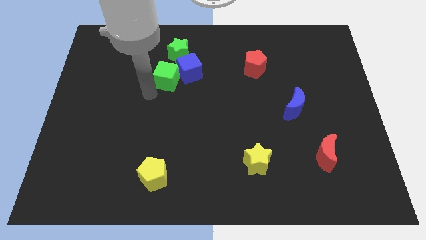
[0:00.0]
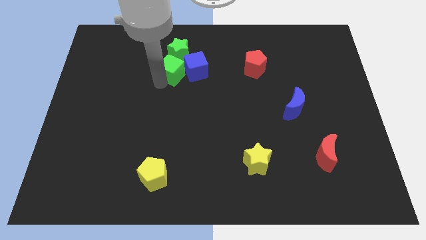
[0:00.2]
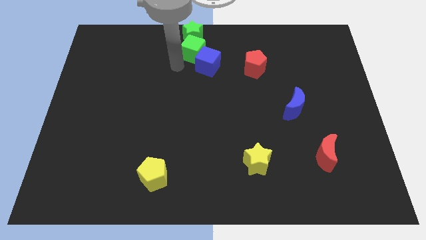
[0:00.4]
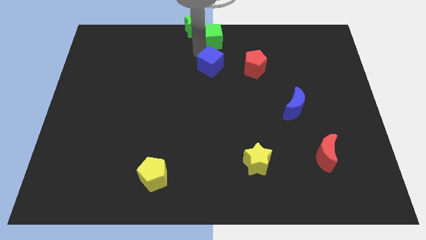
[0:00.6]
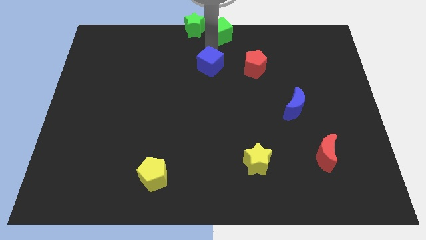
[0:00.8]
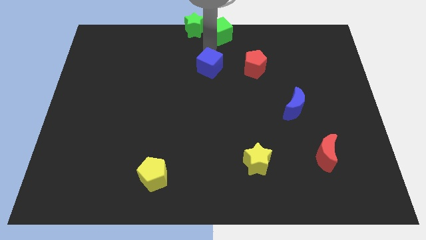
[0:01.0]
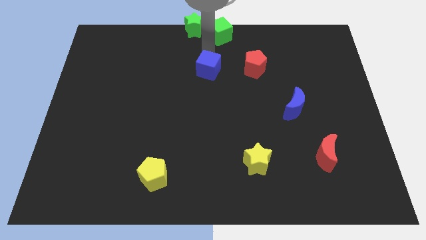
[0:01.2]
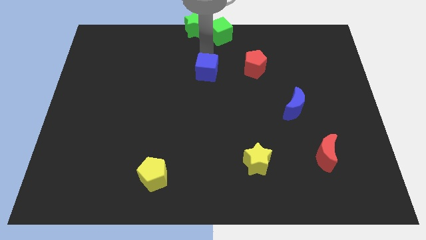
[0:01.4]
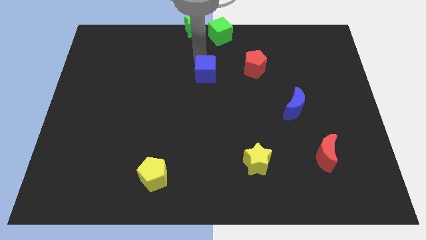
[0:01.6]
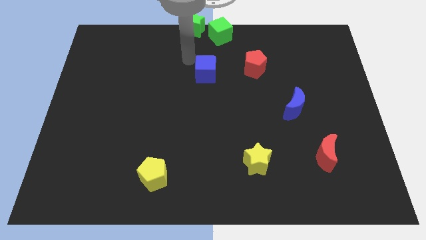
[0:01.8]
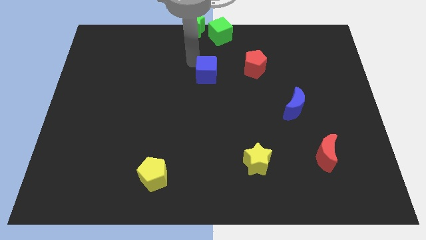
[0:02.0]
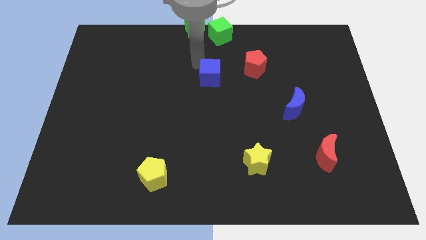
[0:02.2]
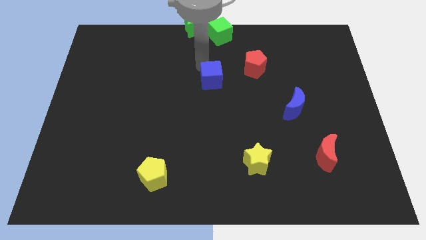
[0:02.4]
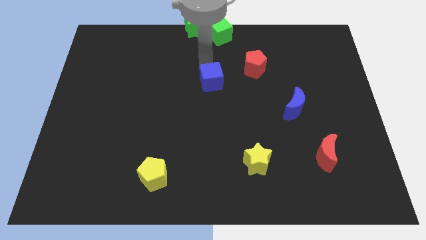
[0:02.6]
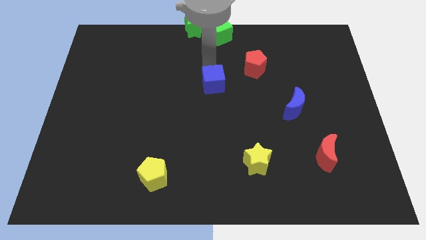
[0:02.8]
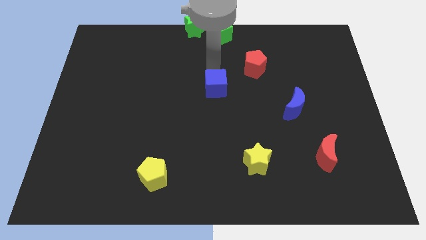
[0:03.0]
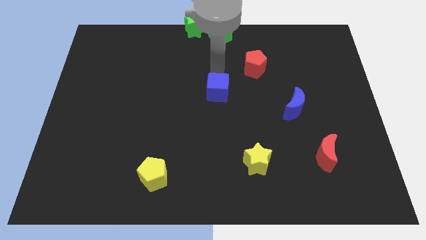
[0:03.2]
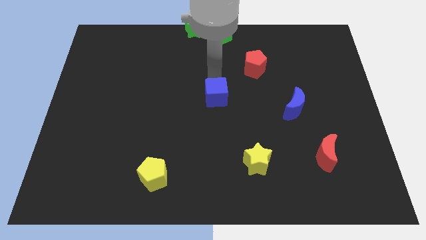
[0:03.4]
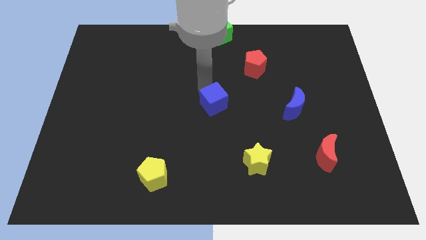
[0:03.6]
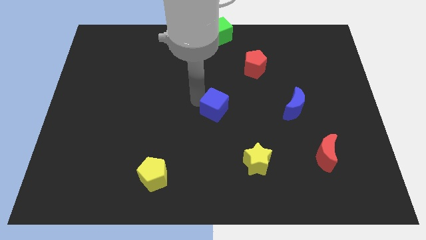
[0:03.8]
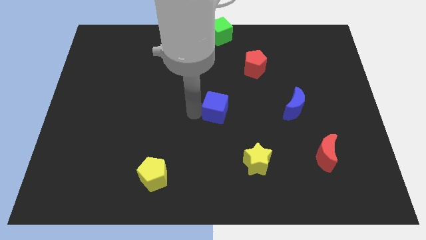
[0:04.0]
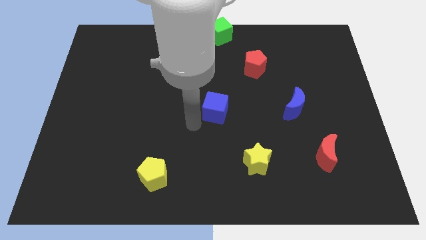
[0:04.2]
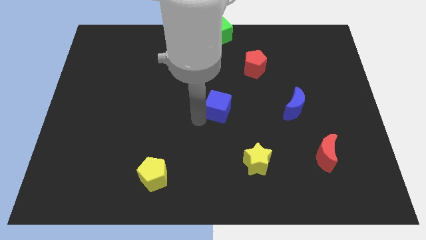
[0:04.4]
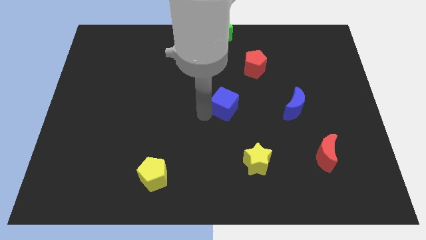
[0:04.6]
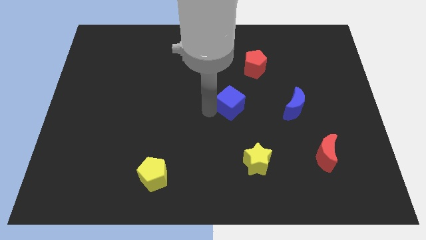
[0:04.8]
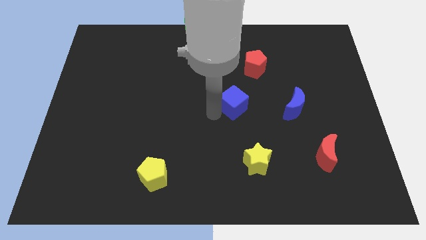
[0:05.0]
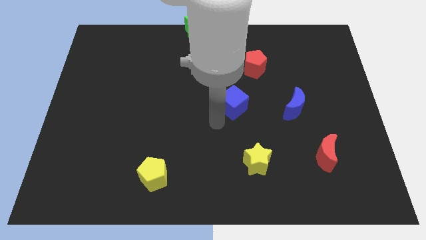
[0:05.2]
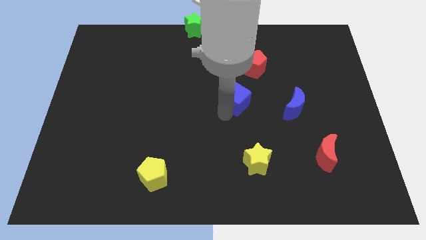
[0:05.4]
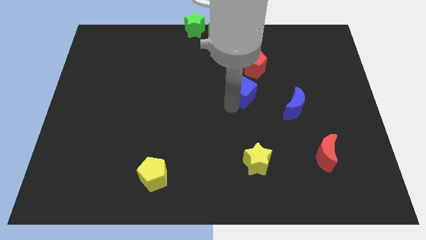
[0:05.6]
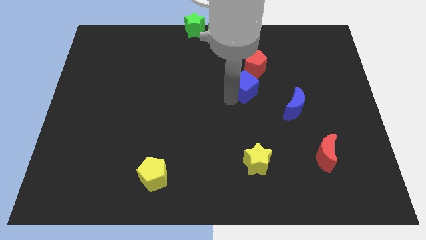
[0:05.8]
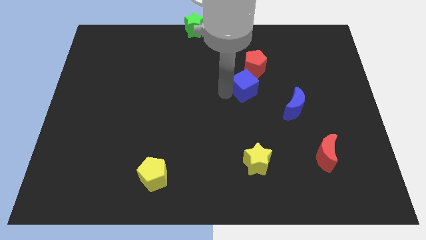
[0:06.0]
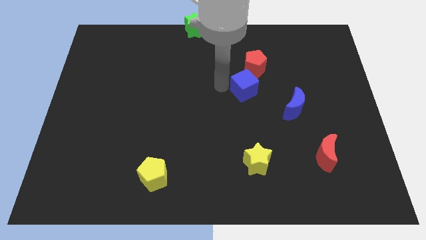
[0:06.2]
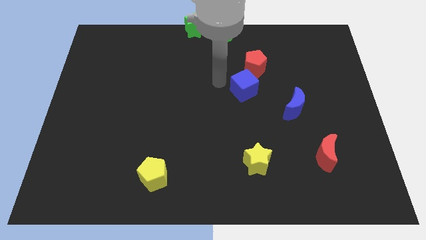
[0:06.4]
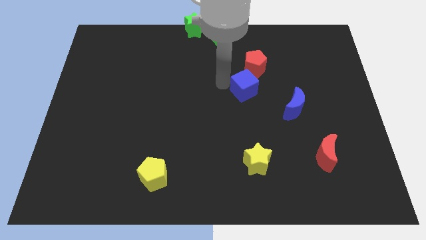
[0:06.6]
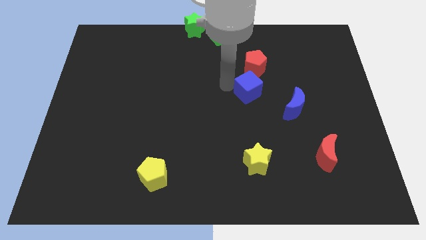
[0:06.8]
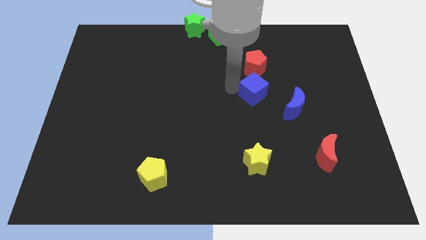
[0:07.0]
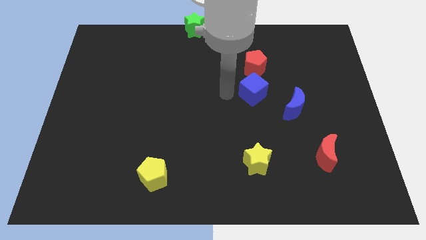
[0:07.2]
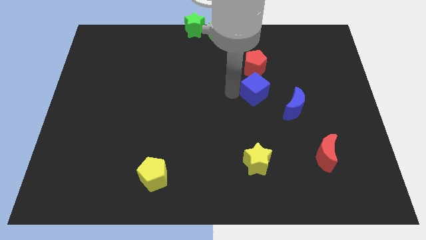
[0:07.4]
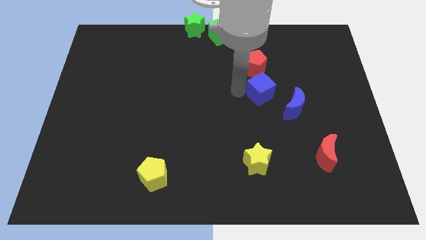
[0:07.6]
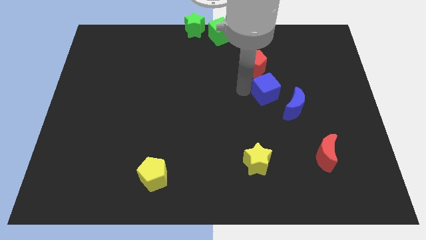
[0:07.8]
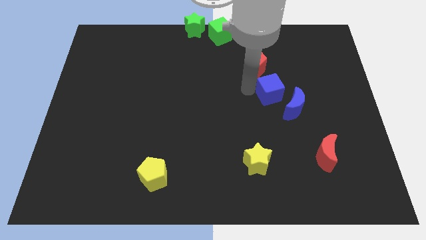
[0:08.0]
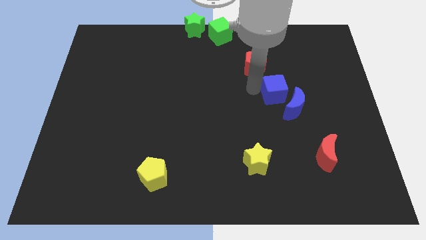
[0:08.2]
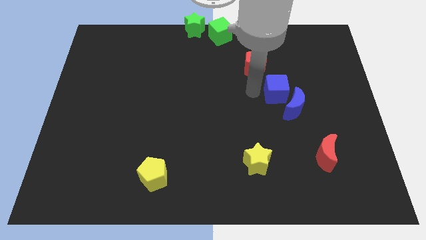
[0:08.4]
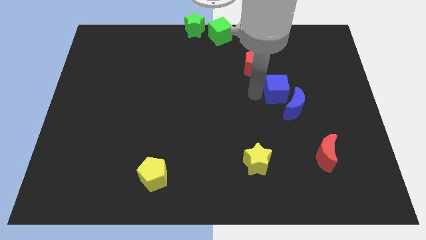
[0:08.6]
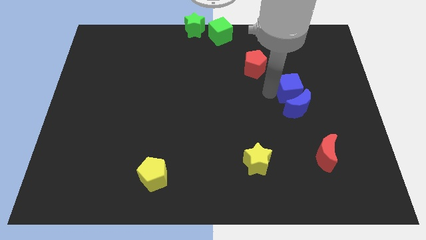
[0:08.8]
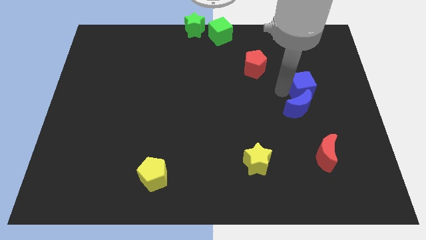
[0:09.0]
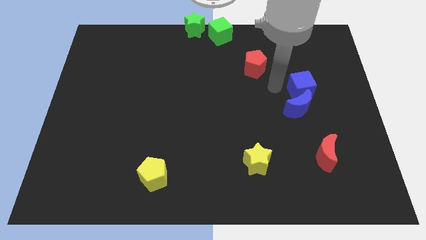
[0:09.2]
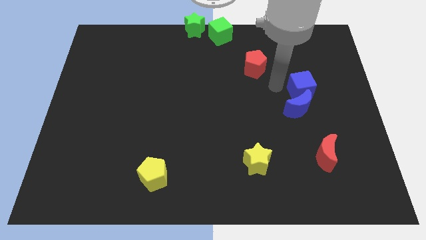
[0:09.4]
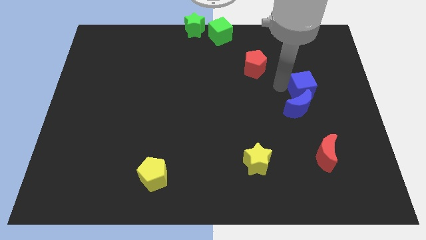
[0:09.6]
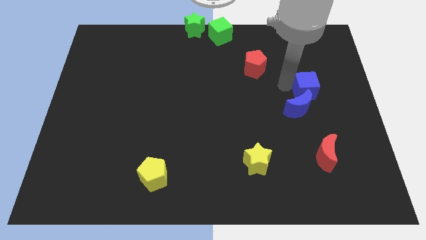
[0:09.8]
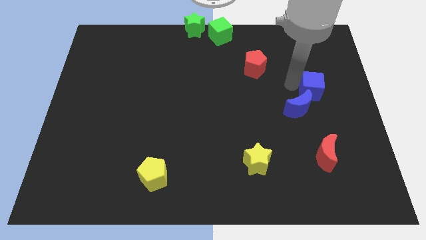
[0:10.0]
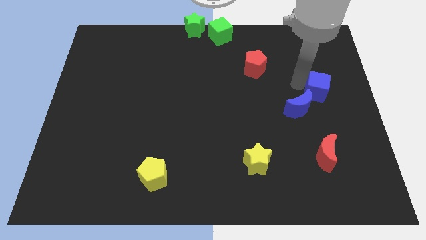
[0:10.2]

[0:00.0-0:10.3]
slide the blue cube to the right side of the board

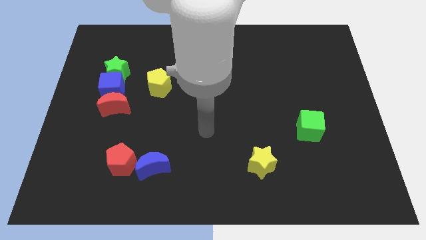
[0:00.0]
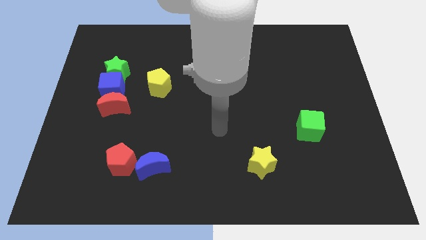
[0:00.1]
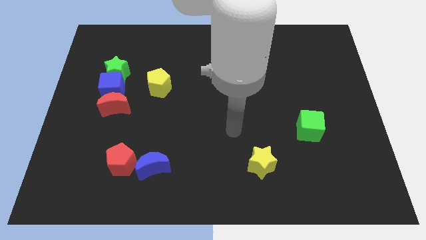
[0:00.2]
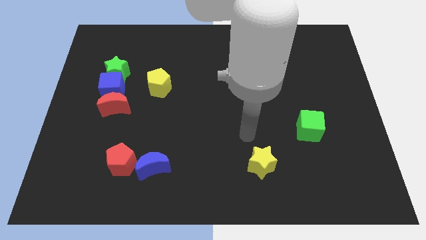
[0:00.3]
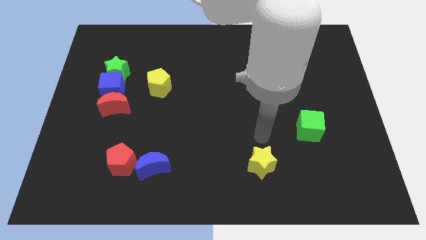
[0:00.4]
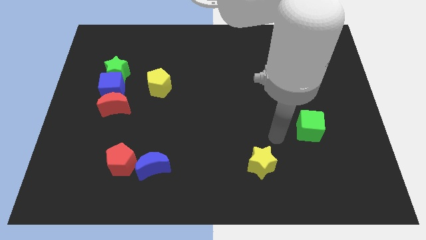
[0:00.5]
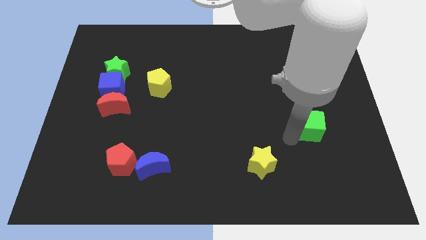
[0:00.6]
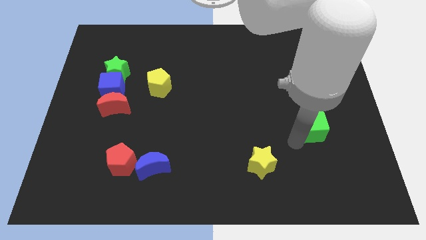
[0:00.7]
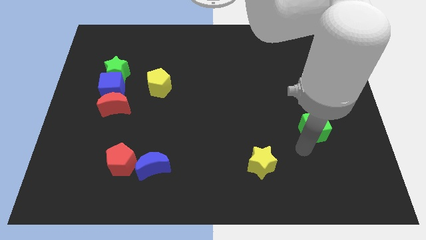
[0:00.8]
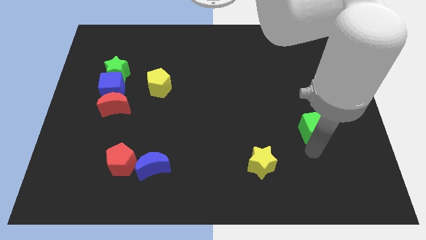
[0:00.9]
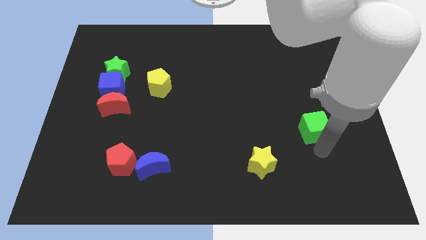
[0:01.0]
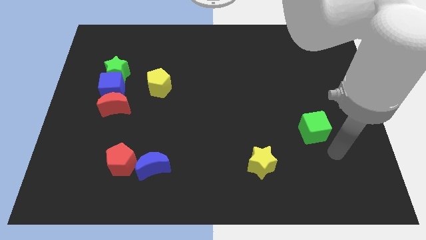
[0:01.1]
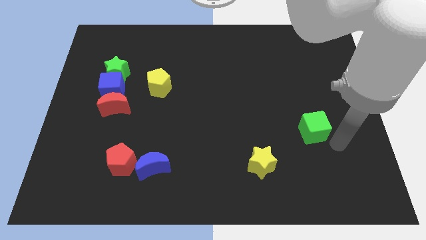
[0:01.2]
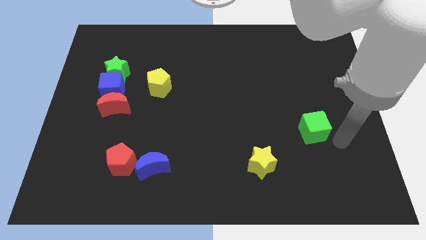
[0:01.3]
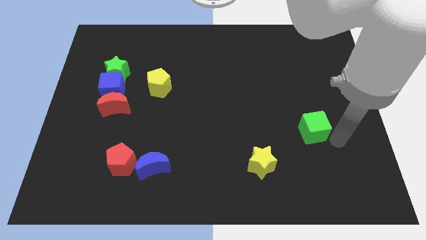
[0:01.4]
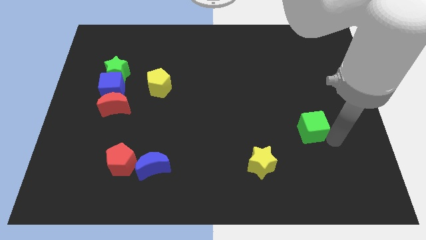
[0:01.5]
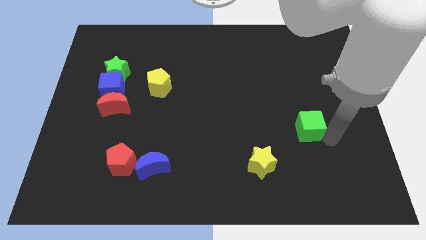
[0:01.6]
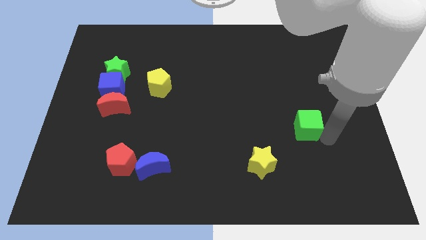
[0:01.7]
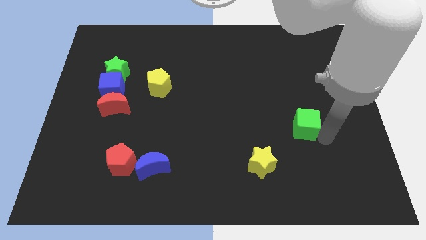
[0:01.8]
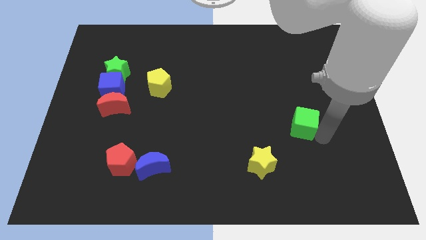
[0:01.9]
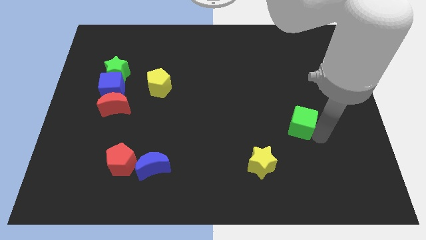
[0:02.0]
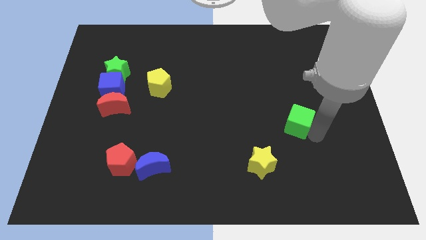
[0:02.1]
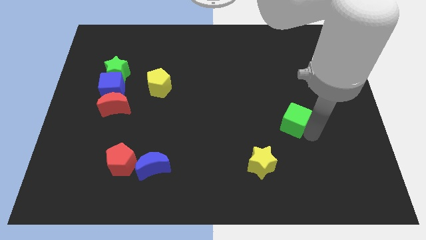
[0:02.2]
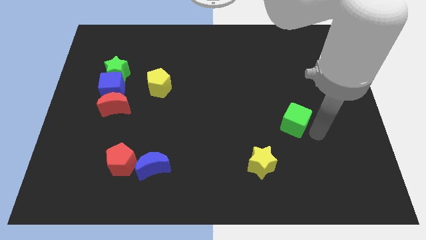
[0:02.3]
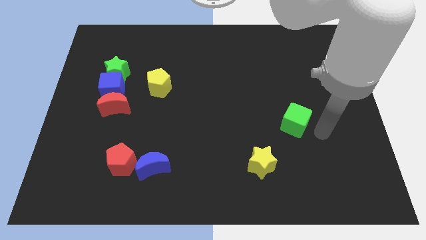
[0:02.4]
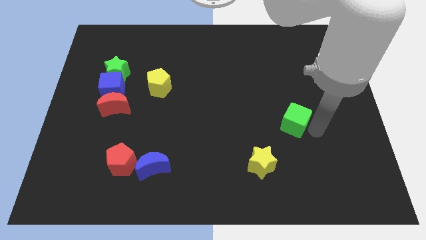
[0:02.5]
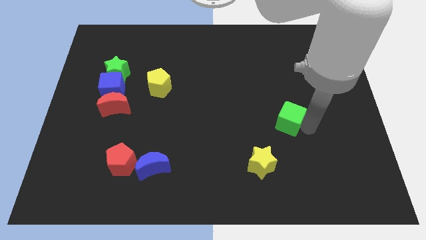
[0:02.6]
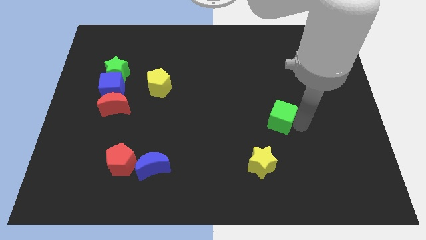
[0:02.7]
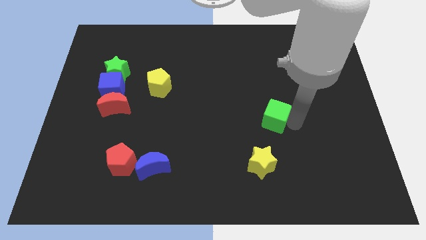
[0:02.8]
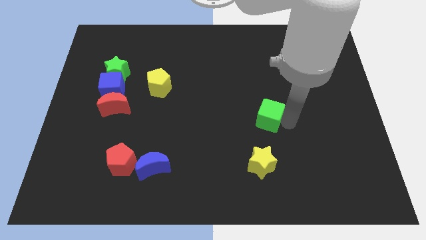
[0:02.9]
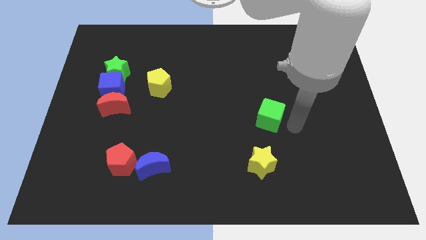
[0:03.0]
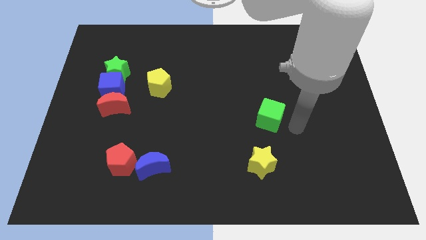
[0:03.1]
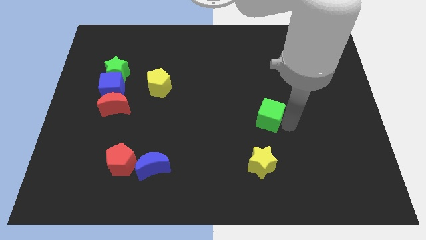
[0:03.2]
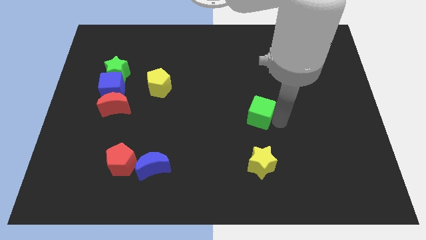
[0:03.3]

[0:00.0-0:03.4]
put the green cube to the middle
